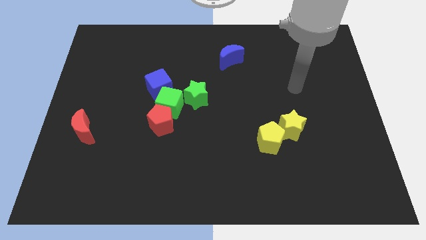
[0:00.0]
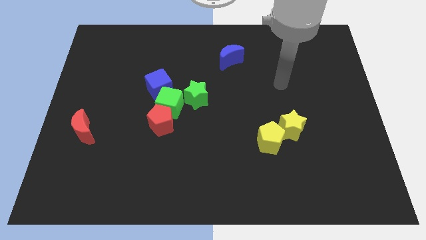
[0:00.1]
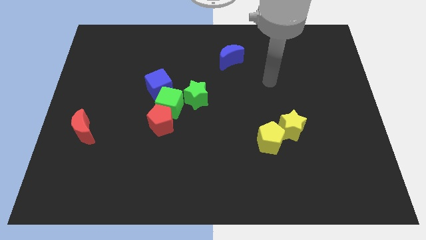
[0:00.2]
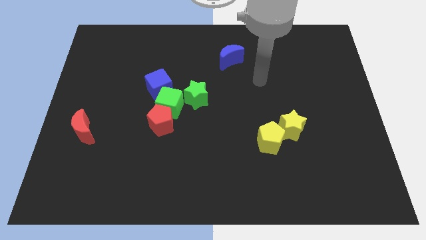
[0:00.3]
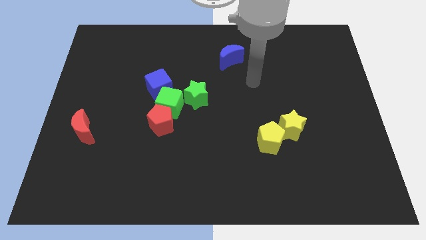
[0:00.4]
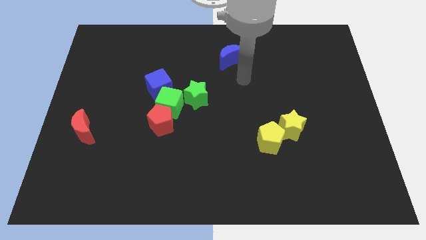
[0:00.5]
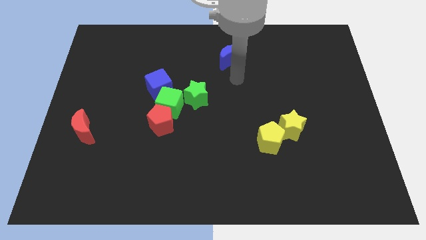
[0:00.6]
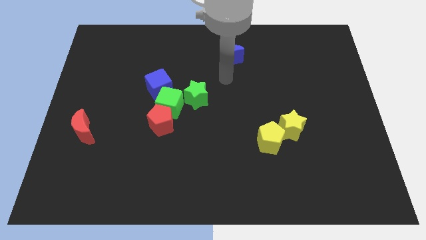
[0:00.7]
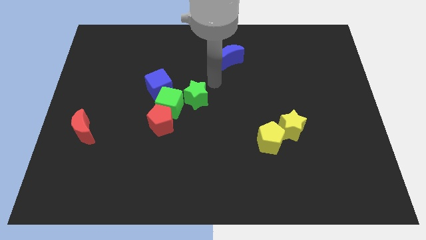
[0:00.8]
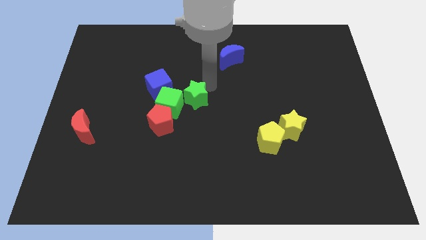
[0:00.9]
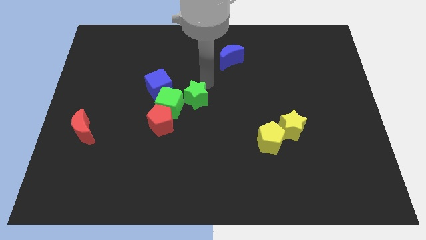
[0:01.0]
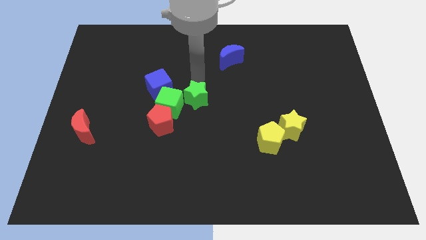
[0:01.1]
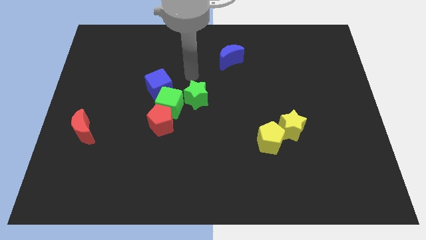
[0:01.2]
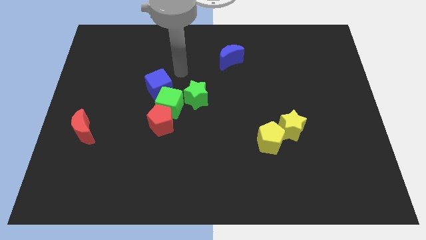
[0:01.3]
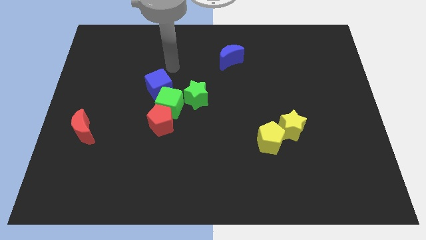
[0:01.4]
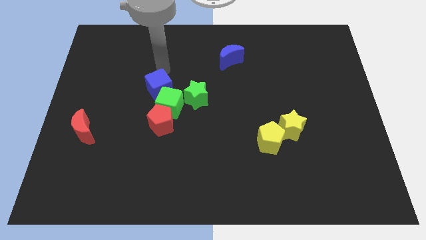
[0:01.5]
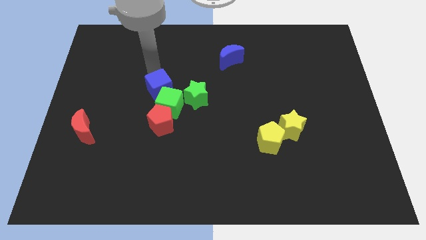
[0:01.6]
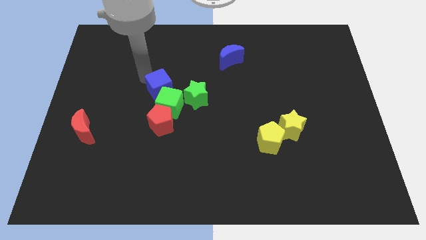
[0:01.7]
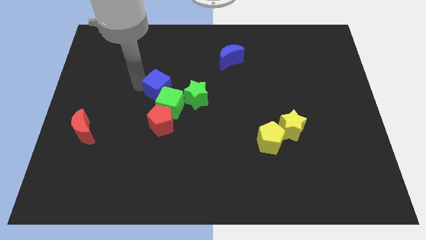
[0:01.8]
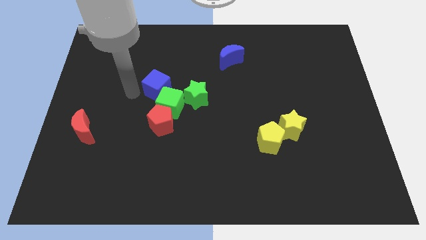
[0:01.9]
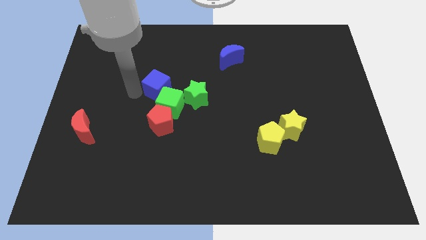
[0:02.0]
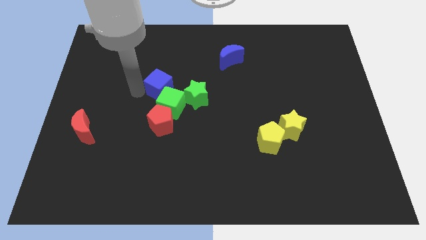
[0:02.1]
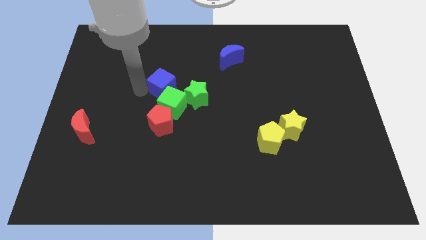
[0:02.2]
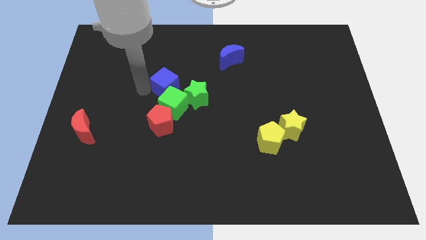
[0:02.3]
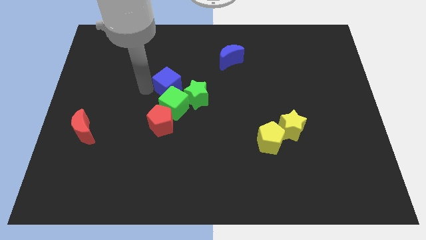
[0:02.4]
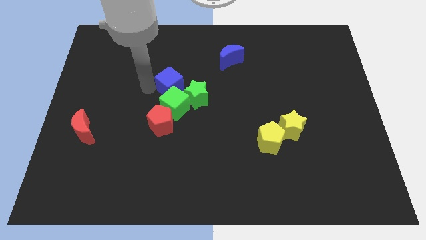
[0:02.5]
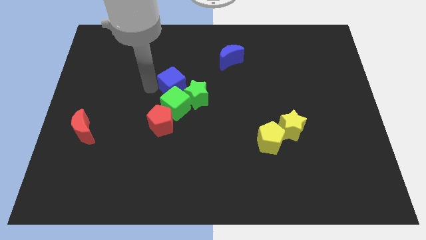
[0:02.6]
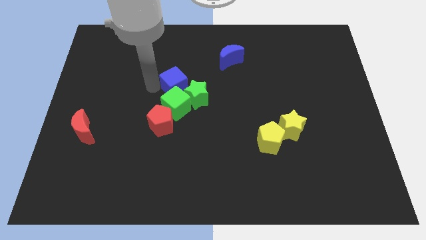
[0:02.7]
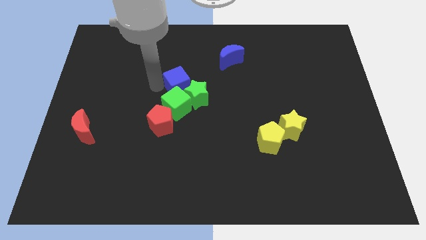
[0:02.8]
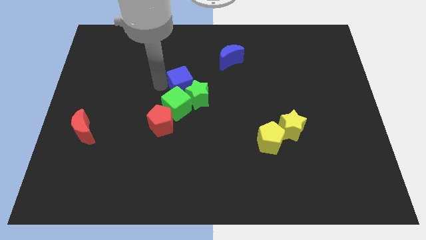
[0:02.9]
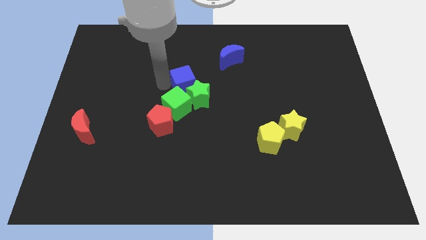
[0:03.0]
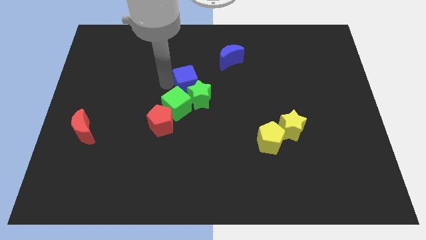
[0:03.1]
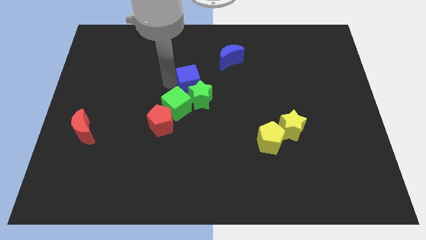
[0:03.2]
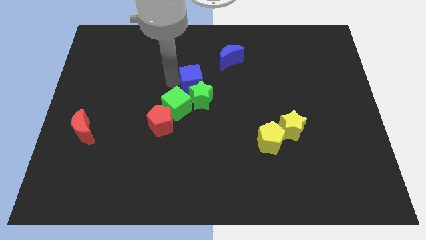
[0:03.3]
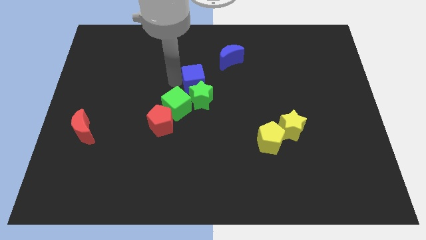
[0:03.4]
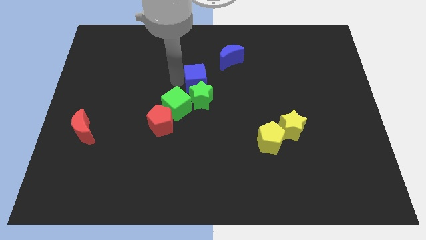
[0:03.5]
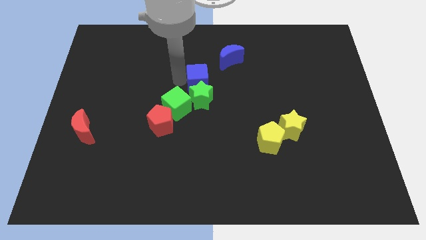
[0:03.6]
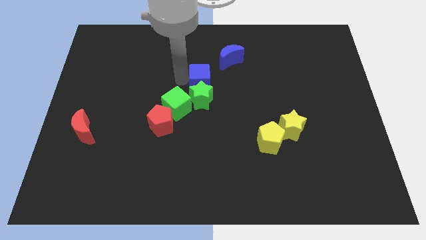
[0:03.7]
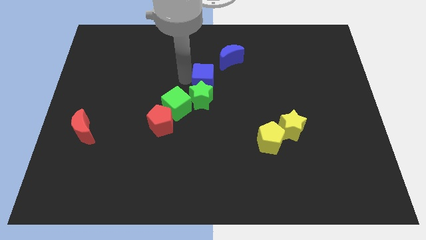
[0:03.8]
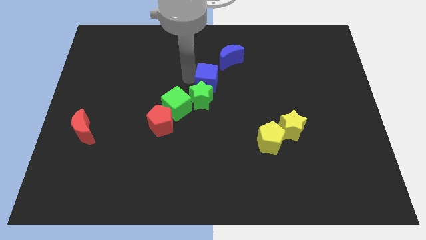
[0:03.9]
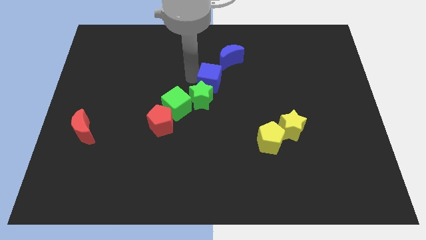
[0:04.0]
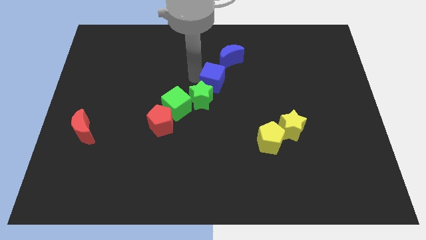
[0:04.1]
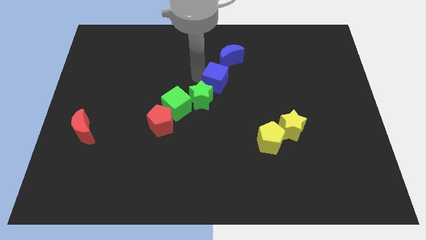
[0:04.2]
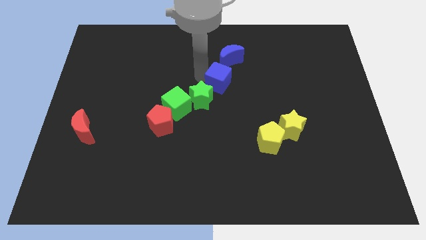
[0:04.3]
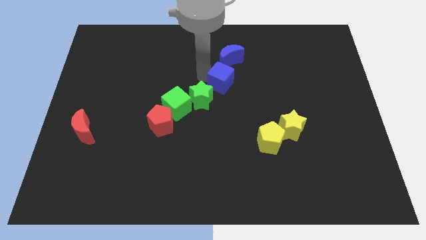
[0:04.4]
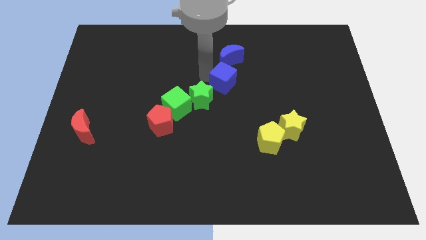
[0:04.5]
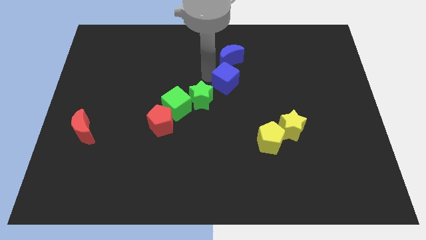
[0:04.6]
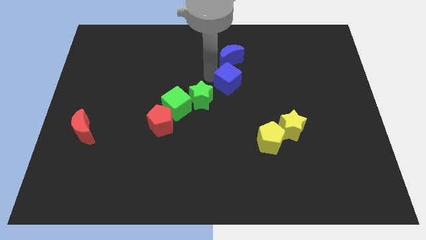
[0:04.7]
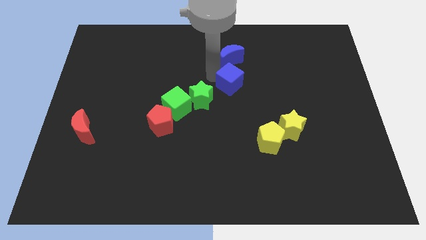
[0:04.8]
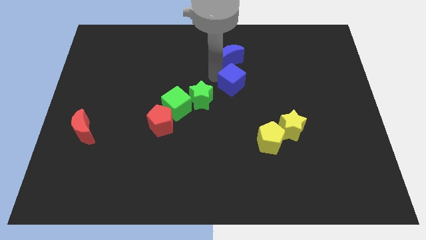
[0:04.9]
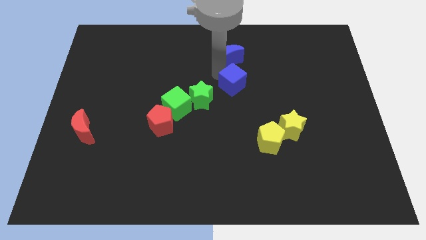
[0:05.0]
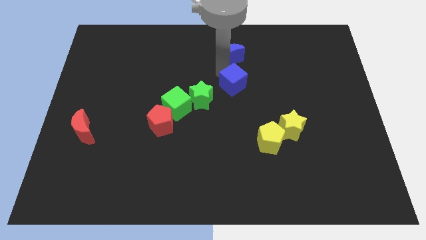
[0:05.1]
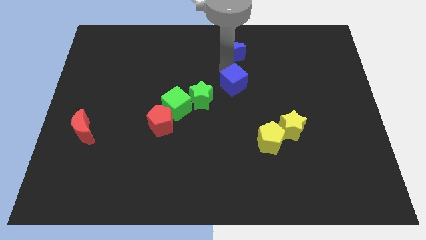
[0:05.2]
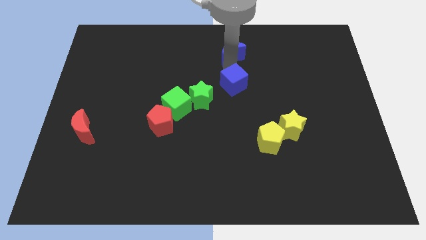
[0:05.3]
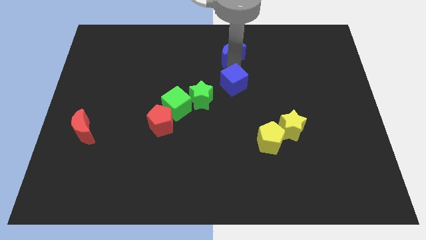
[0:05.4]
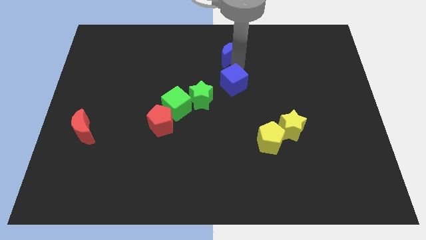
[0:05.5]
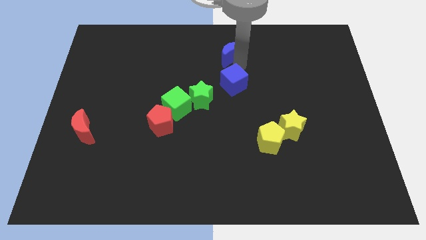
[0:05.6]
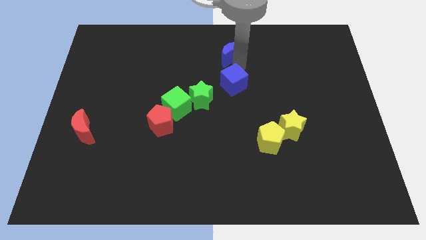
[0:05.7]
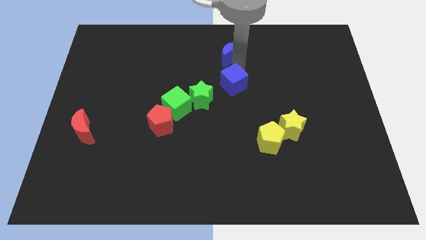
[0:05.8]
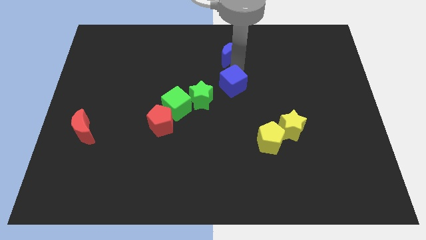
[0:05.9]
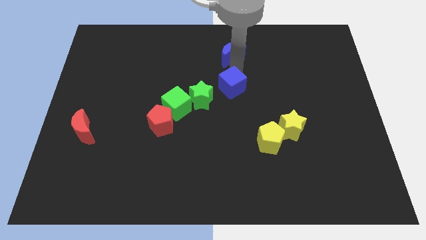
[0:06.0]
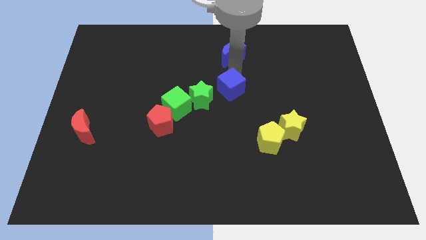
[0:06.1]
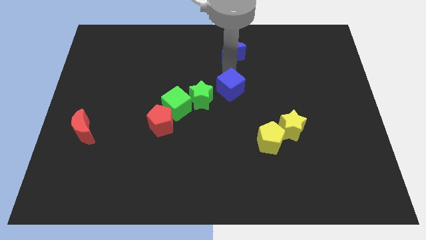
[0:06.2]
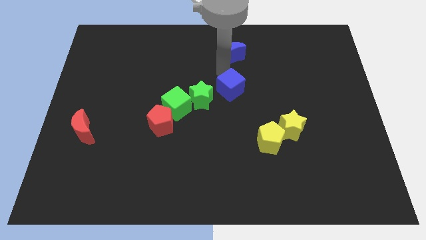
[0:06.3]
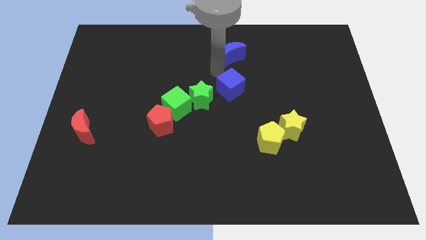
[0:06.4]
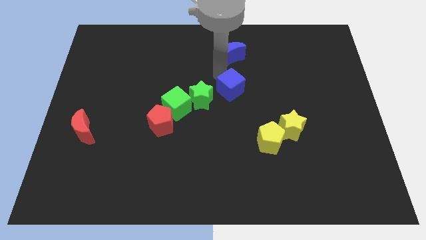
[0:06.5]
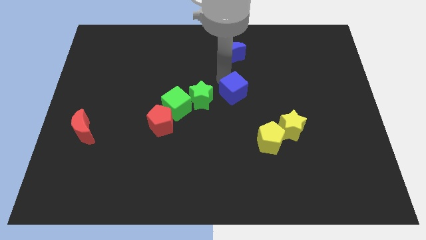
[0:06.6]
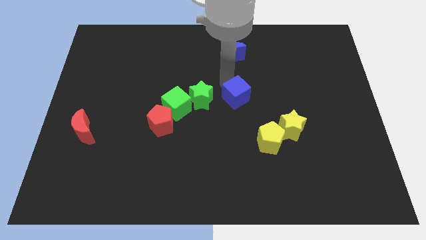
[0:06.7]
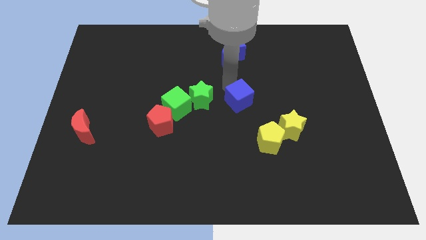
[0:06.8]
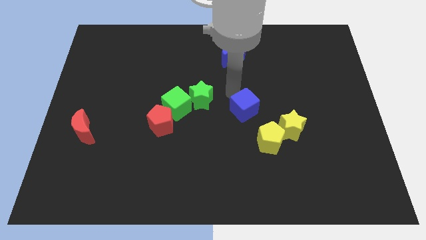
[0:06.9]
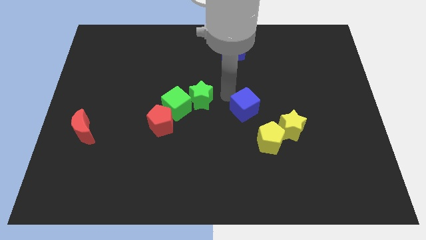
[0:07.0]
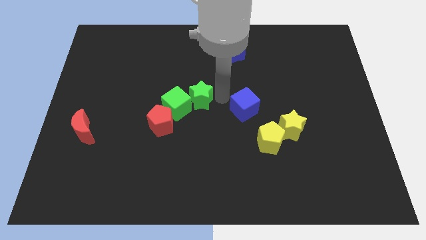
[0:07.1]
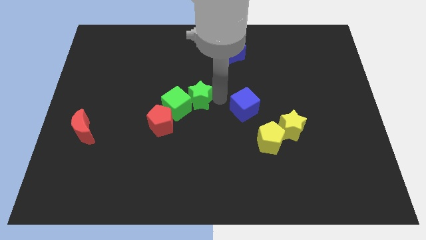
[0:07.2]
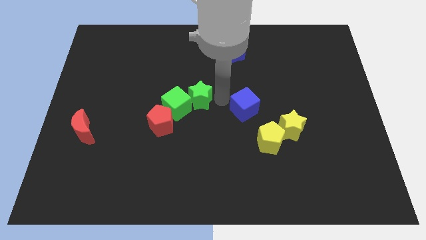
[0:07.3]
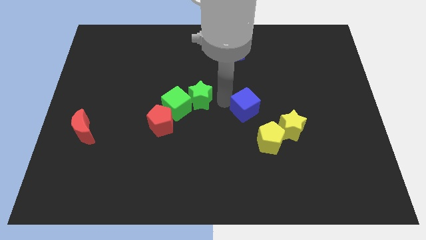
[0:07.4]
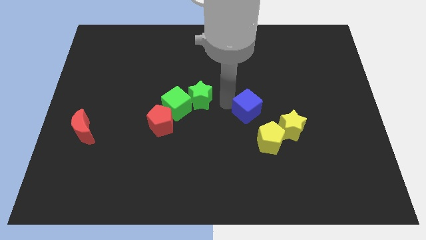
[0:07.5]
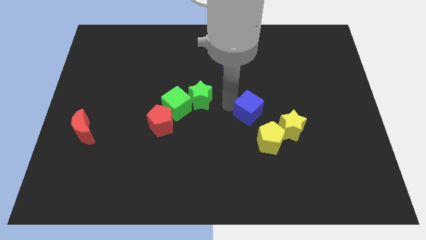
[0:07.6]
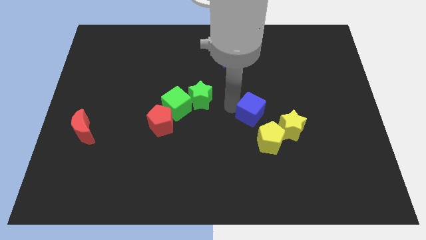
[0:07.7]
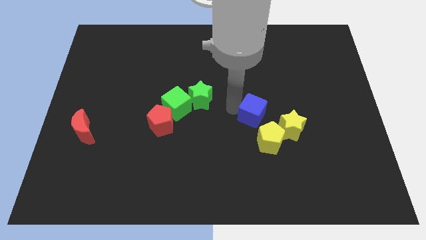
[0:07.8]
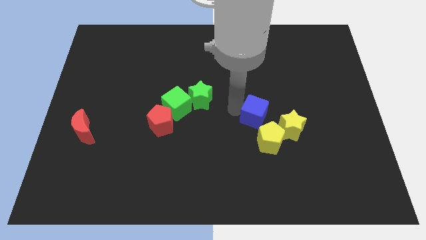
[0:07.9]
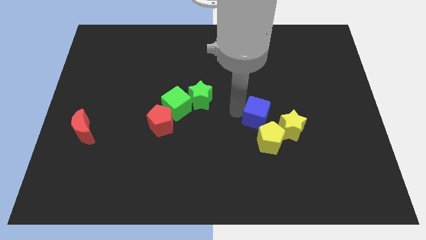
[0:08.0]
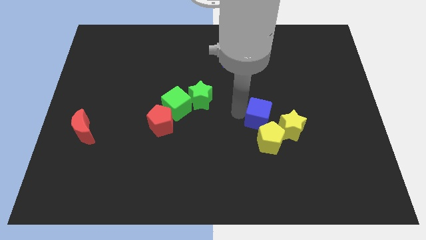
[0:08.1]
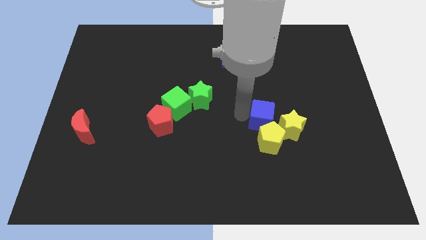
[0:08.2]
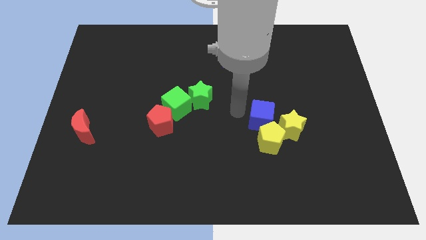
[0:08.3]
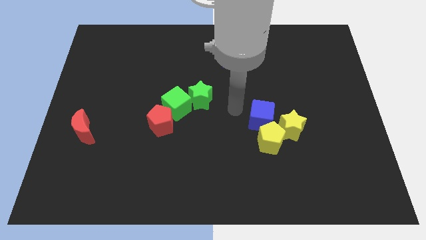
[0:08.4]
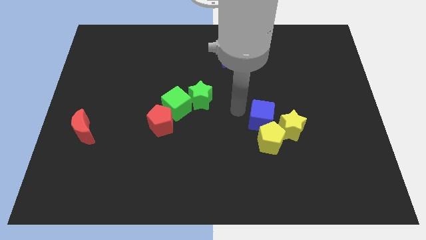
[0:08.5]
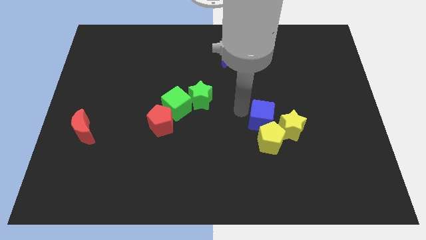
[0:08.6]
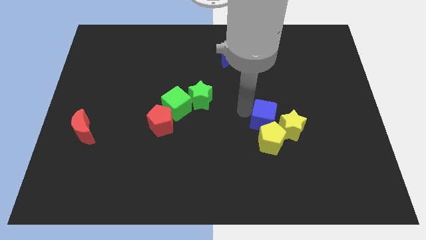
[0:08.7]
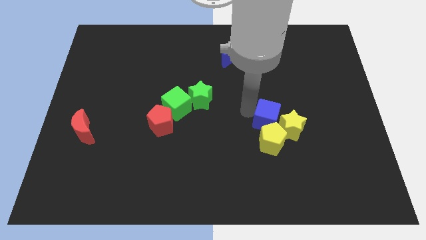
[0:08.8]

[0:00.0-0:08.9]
put the blue cube next to the yellow star
